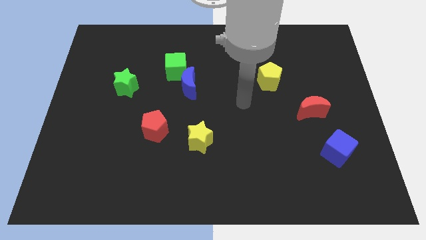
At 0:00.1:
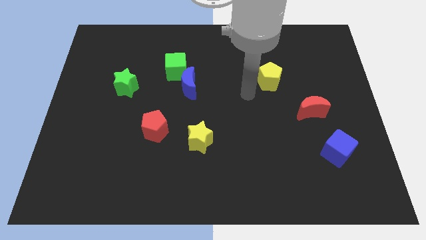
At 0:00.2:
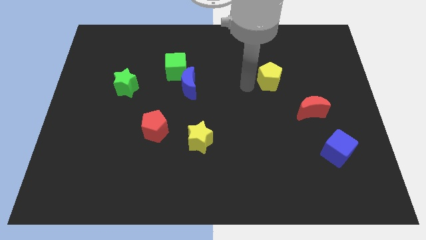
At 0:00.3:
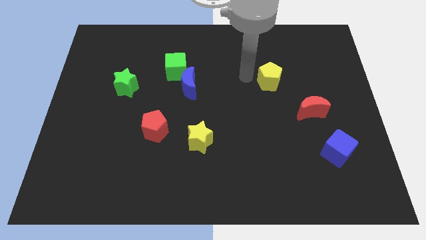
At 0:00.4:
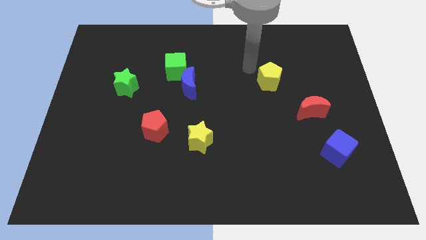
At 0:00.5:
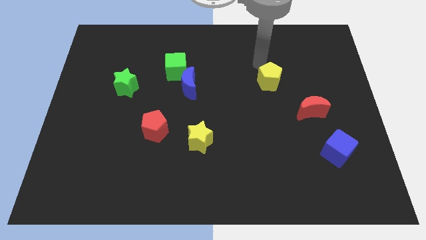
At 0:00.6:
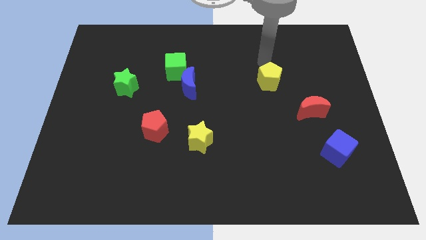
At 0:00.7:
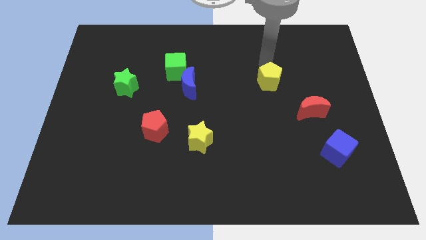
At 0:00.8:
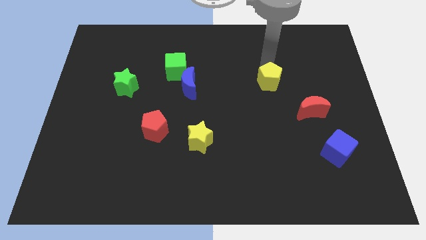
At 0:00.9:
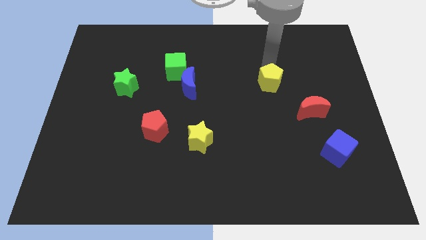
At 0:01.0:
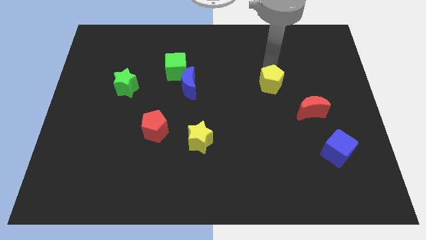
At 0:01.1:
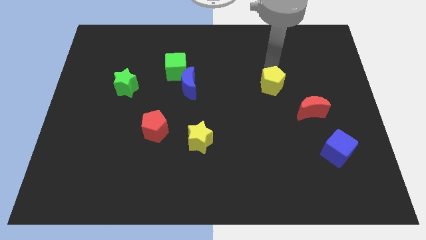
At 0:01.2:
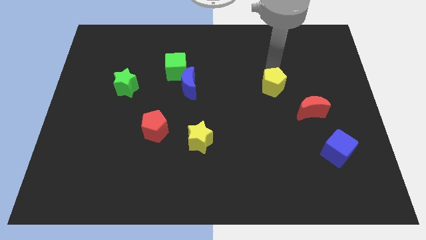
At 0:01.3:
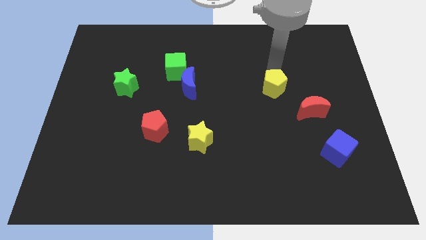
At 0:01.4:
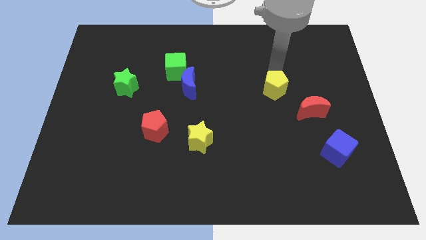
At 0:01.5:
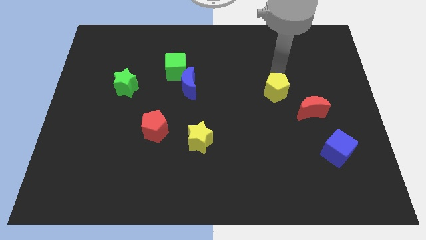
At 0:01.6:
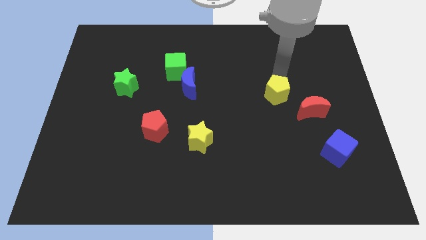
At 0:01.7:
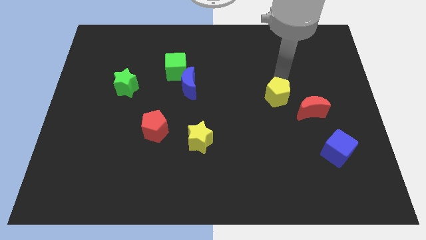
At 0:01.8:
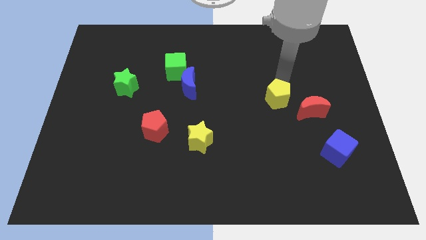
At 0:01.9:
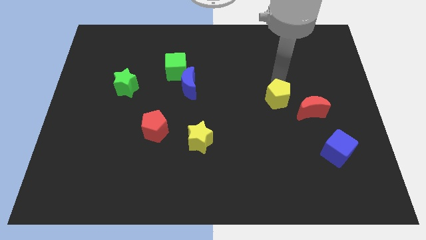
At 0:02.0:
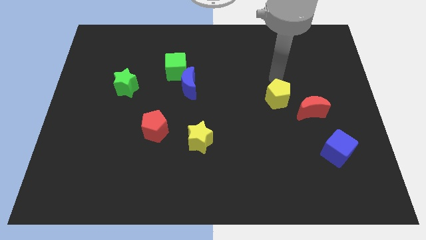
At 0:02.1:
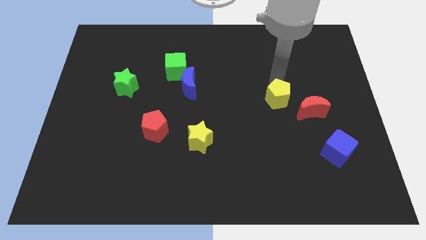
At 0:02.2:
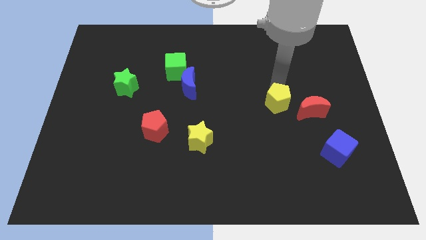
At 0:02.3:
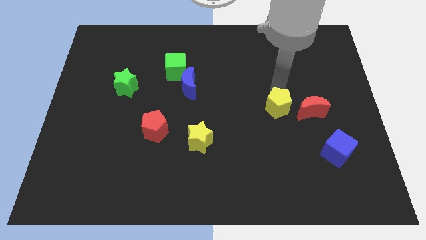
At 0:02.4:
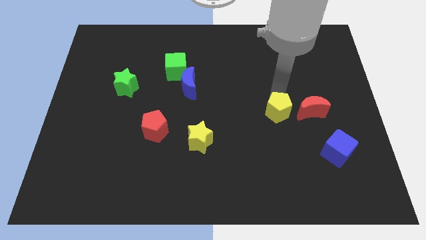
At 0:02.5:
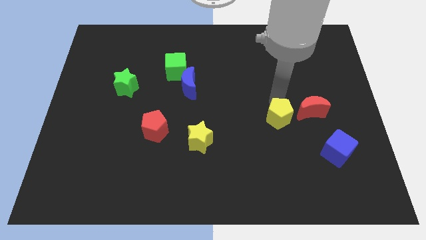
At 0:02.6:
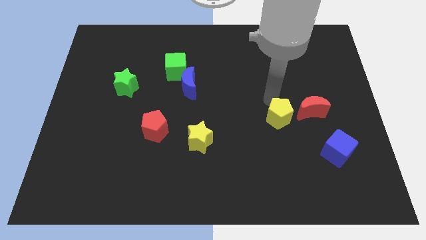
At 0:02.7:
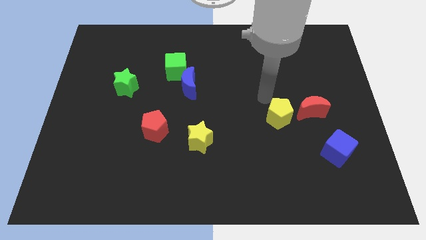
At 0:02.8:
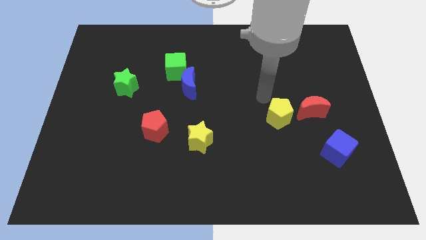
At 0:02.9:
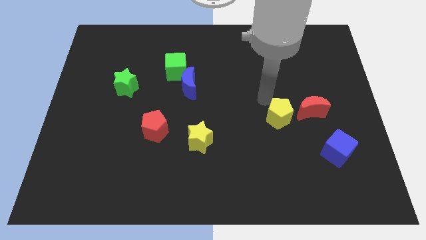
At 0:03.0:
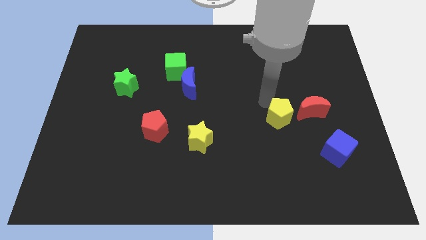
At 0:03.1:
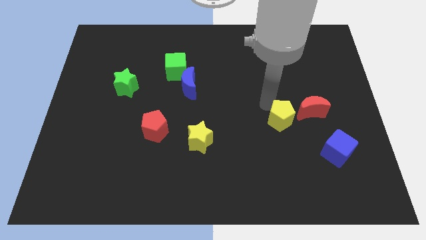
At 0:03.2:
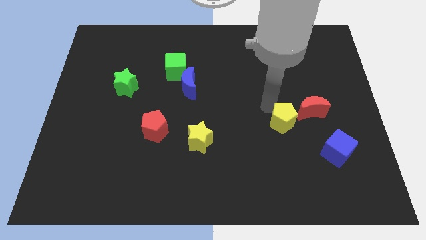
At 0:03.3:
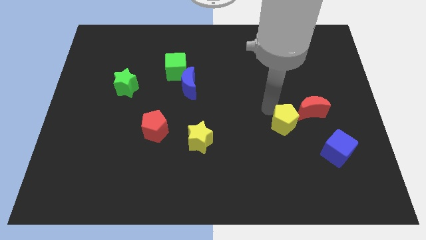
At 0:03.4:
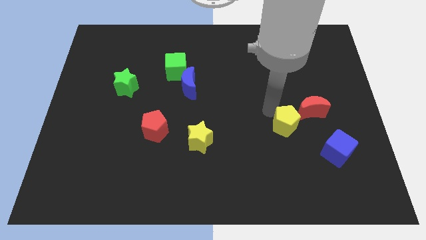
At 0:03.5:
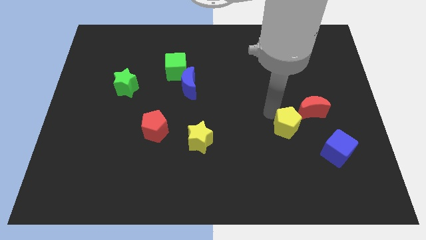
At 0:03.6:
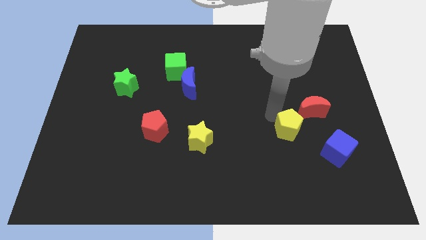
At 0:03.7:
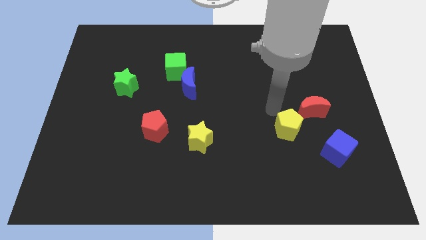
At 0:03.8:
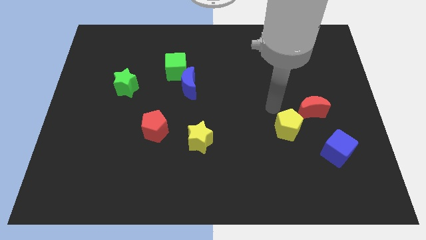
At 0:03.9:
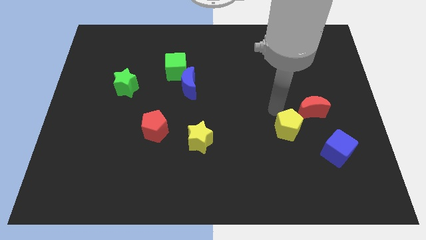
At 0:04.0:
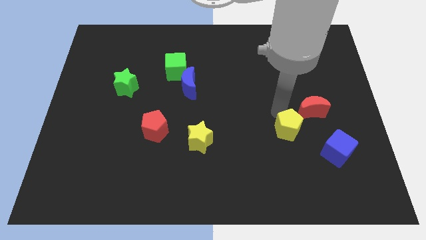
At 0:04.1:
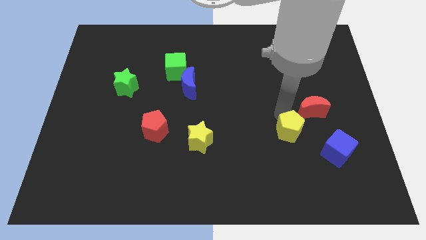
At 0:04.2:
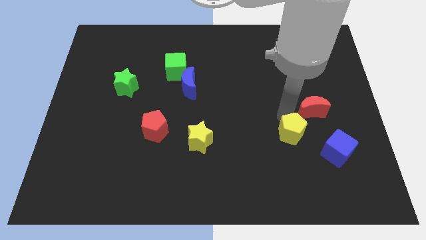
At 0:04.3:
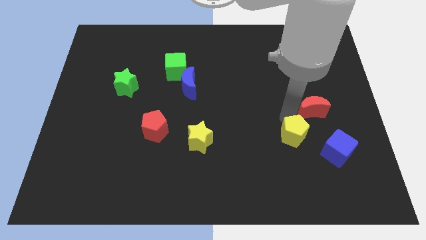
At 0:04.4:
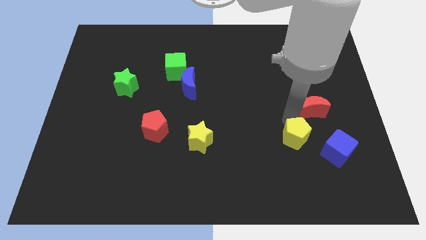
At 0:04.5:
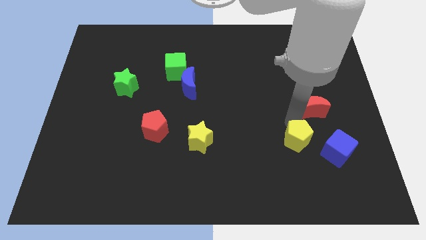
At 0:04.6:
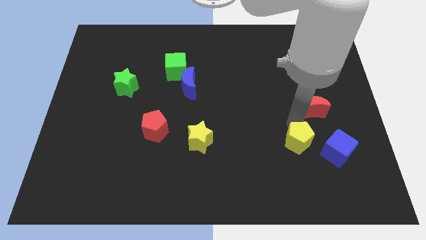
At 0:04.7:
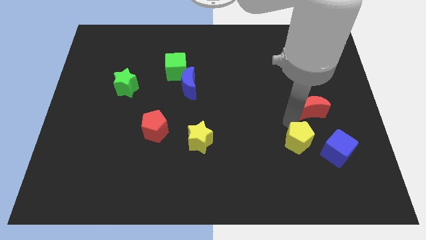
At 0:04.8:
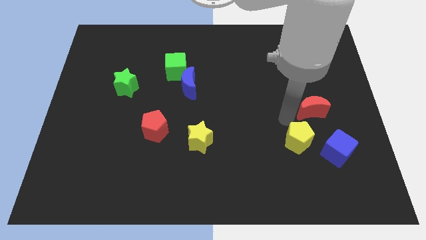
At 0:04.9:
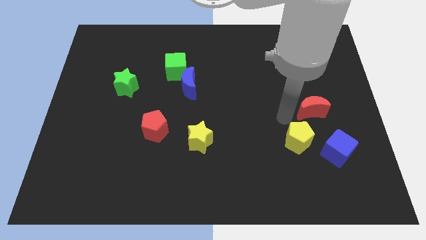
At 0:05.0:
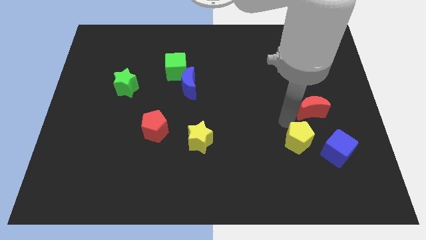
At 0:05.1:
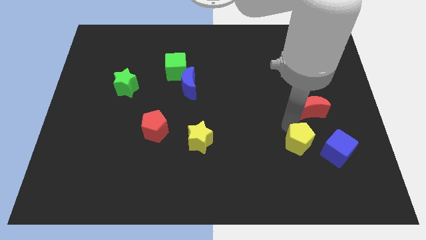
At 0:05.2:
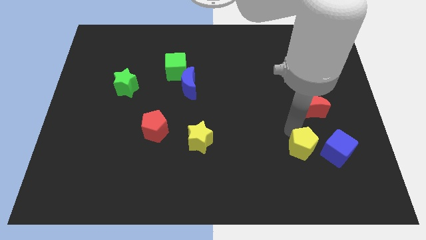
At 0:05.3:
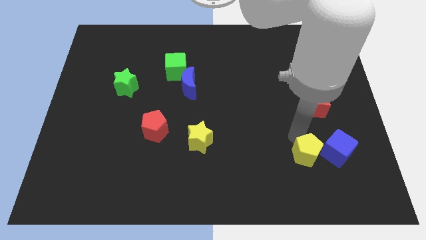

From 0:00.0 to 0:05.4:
slide the yellow pentagon diagonally down and to the left of the blue cube

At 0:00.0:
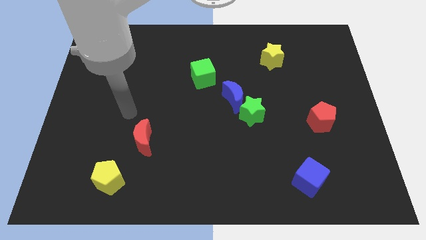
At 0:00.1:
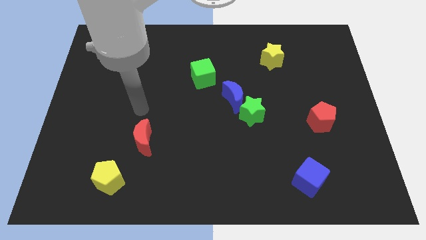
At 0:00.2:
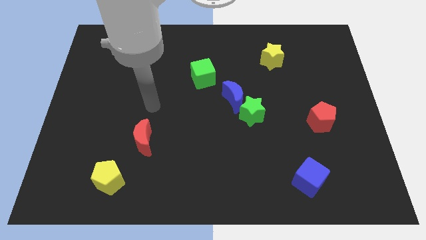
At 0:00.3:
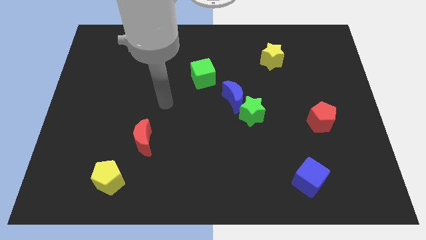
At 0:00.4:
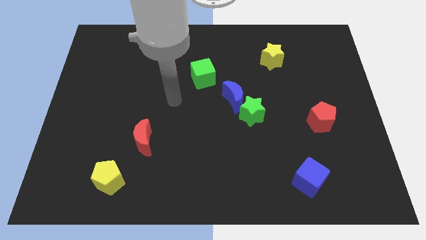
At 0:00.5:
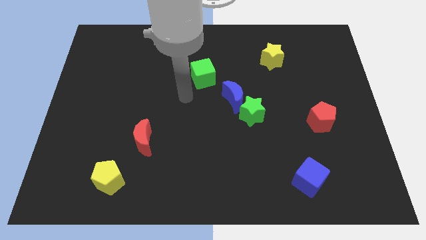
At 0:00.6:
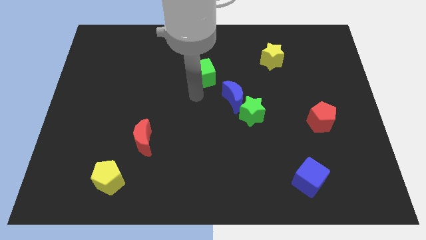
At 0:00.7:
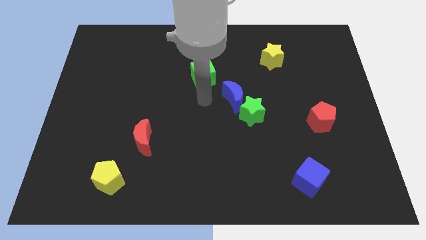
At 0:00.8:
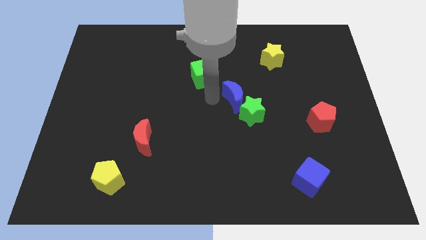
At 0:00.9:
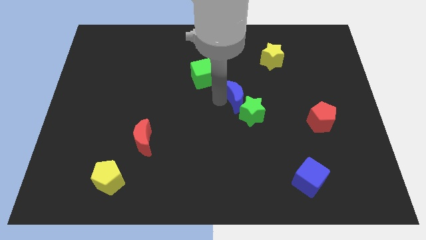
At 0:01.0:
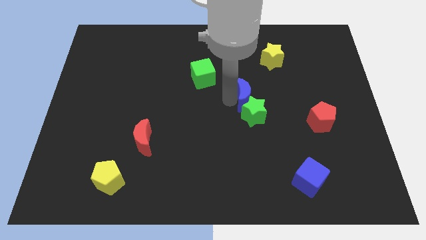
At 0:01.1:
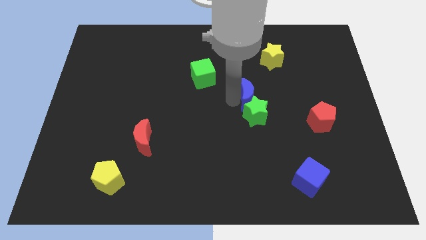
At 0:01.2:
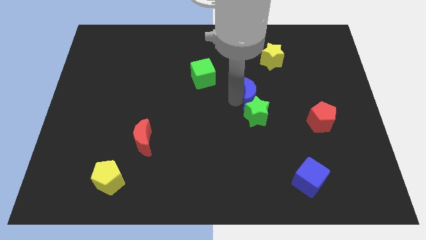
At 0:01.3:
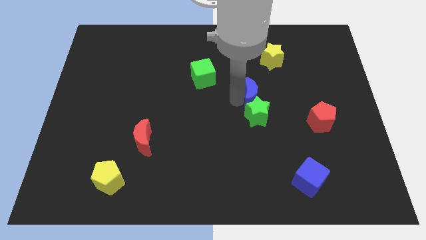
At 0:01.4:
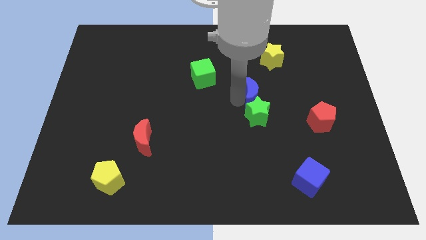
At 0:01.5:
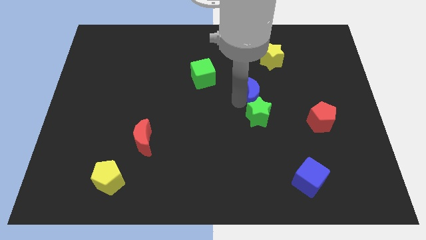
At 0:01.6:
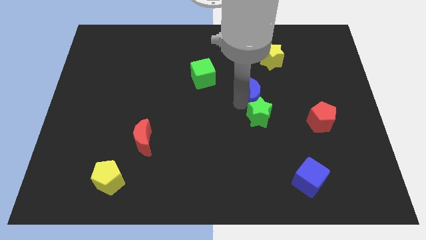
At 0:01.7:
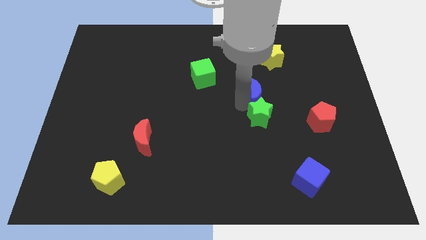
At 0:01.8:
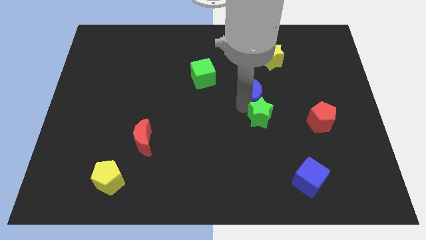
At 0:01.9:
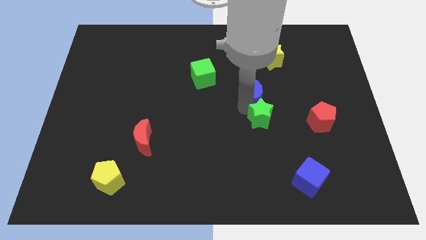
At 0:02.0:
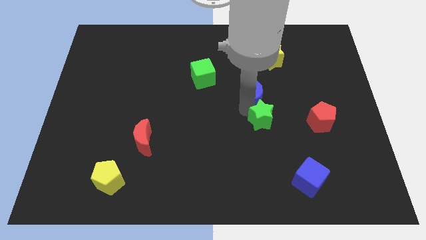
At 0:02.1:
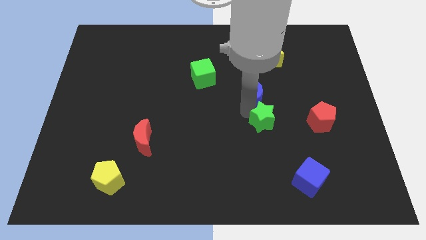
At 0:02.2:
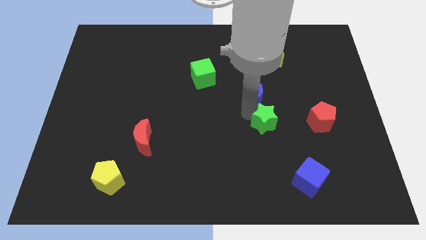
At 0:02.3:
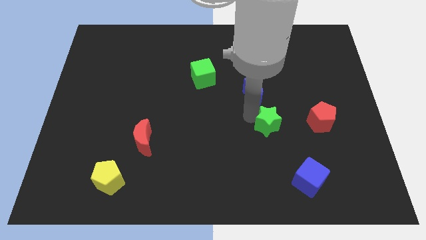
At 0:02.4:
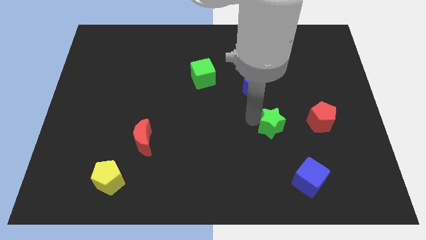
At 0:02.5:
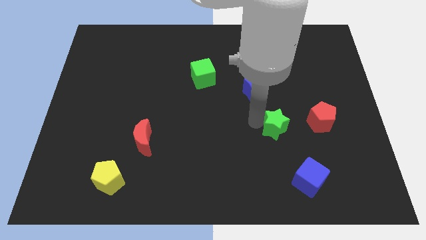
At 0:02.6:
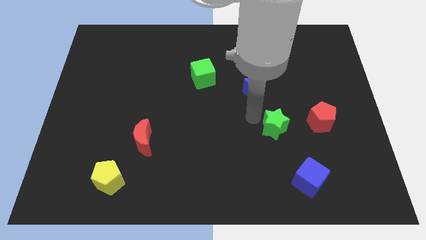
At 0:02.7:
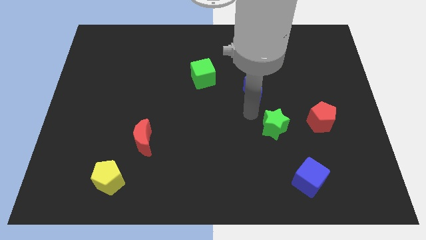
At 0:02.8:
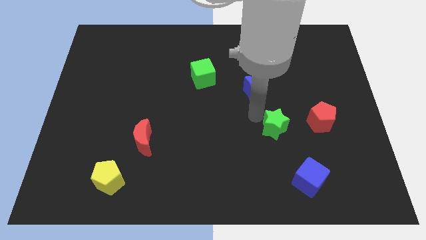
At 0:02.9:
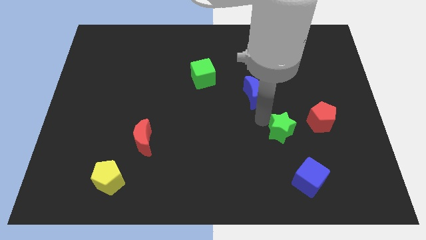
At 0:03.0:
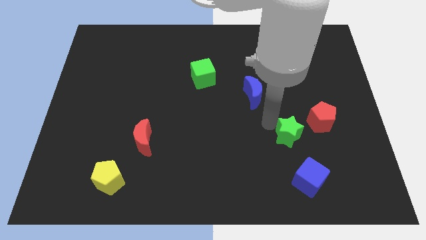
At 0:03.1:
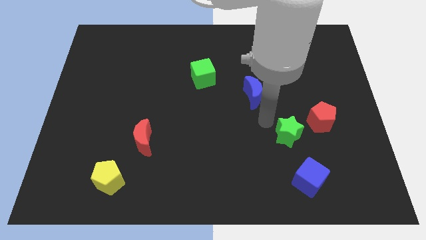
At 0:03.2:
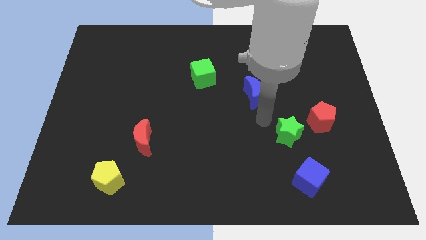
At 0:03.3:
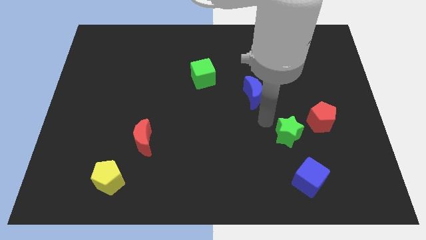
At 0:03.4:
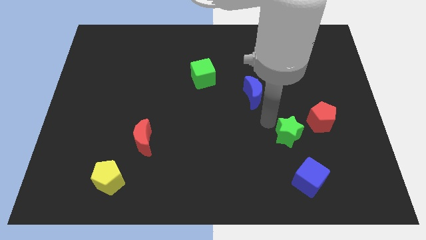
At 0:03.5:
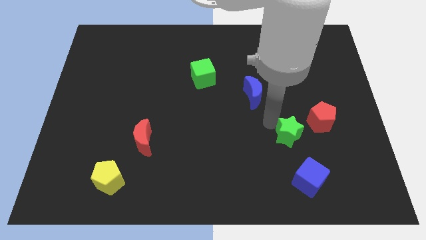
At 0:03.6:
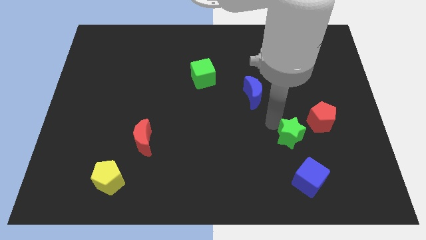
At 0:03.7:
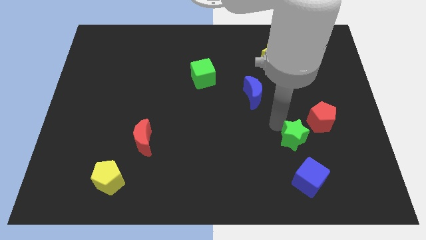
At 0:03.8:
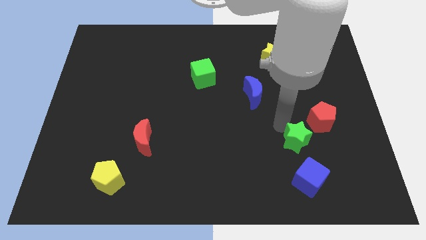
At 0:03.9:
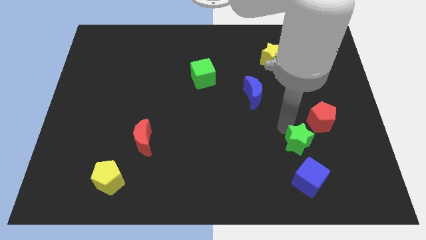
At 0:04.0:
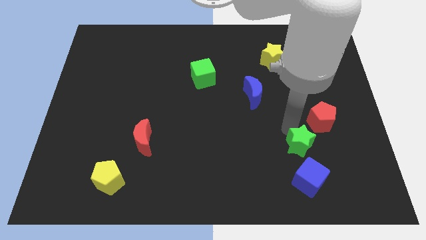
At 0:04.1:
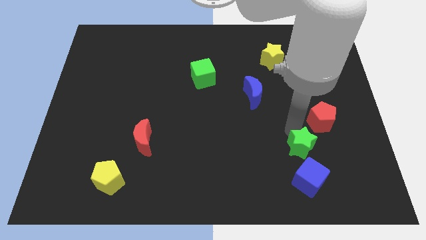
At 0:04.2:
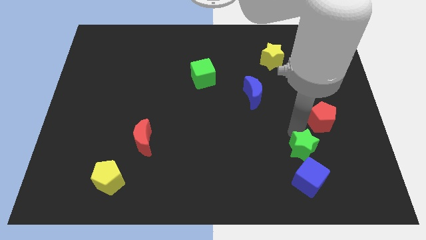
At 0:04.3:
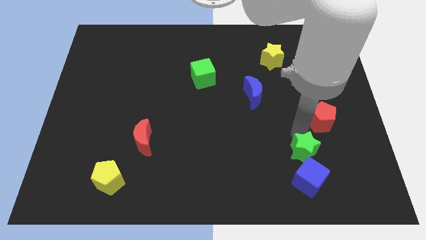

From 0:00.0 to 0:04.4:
slide the green star to the bottom side of the red pentagon
